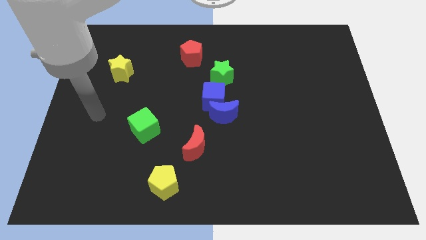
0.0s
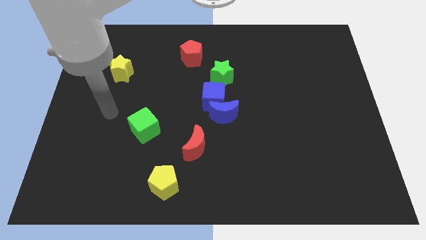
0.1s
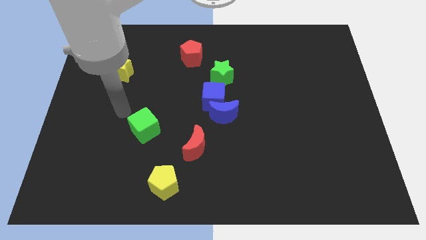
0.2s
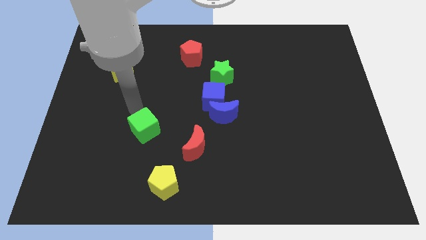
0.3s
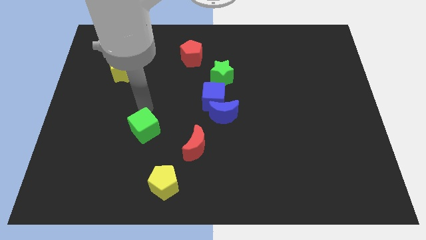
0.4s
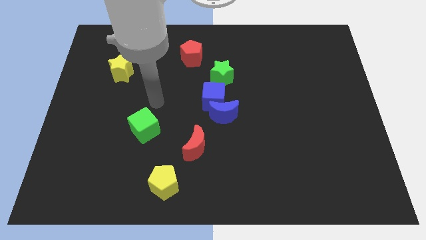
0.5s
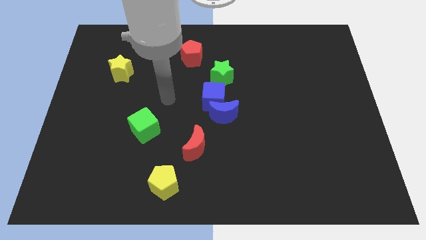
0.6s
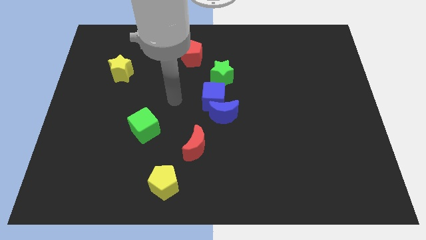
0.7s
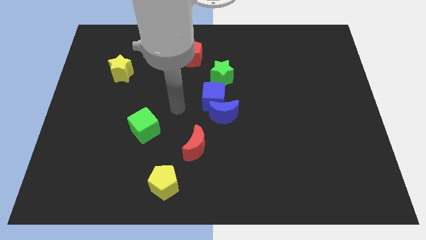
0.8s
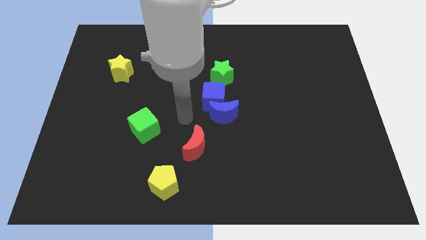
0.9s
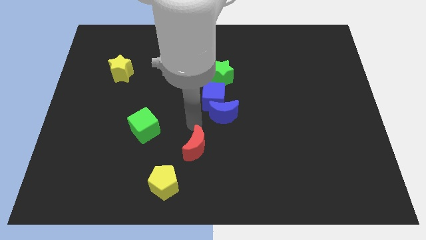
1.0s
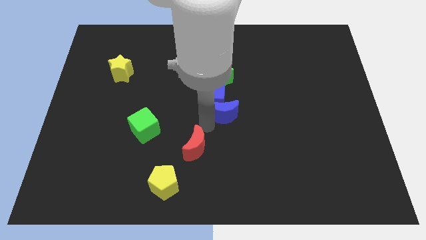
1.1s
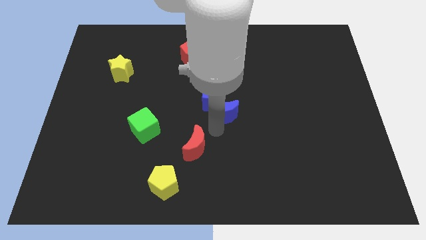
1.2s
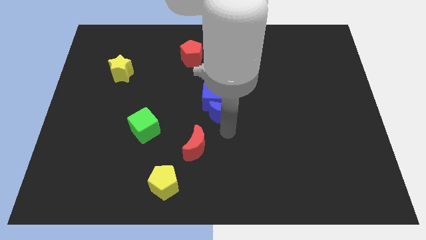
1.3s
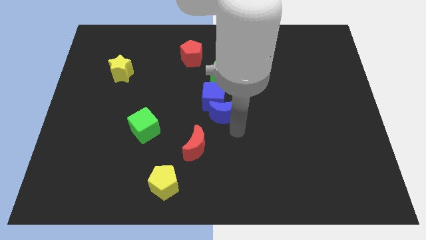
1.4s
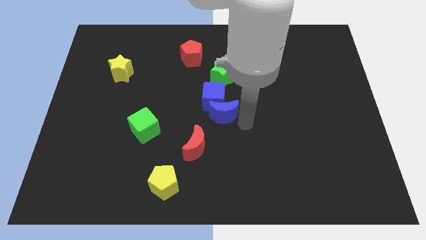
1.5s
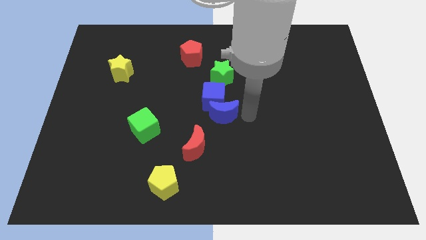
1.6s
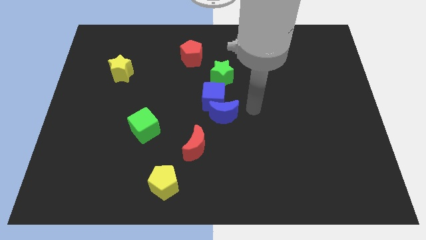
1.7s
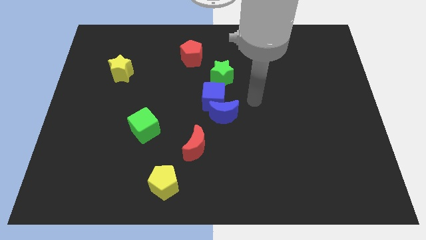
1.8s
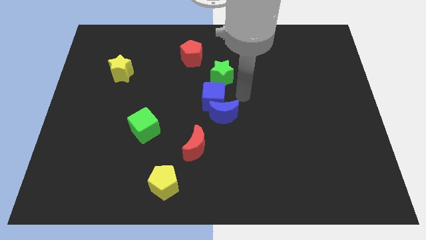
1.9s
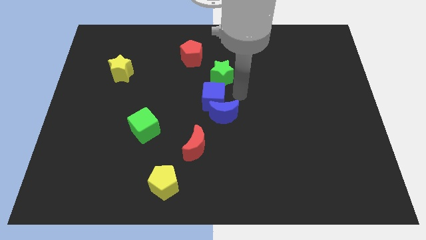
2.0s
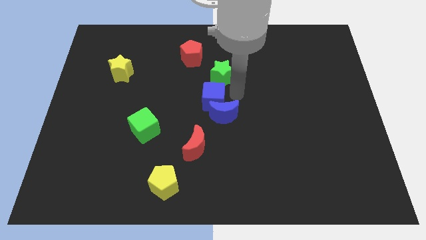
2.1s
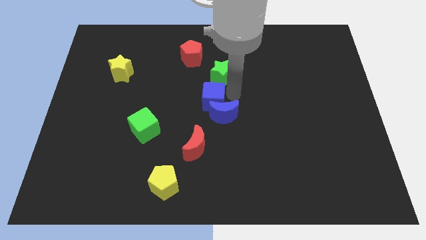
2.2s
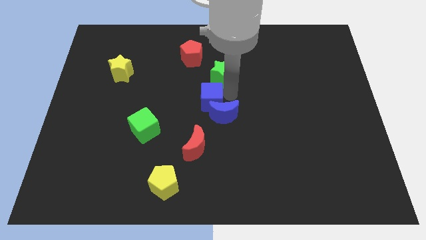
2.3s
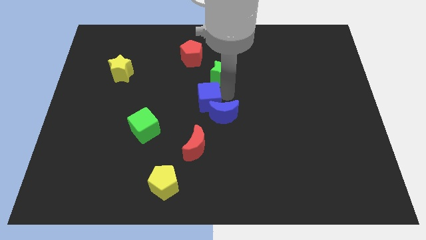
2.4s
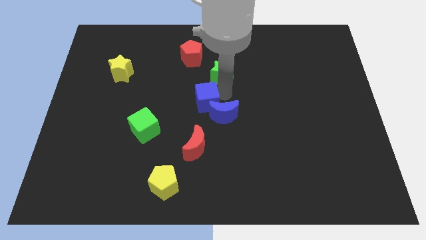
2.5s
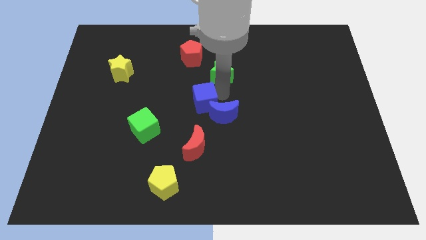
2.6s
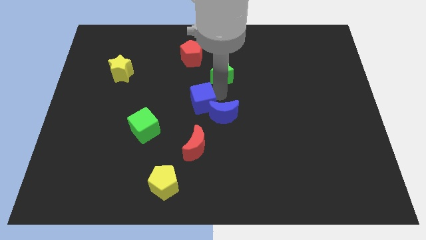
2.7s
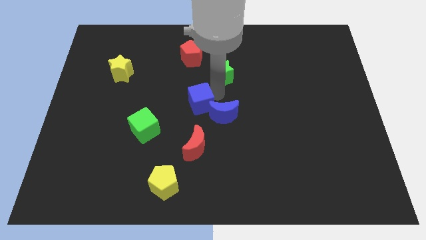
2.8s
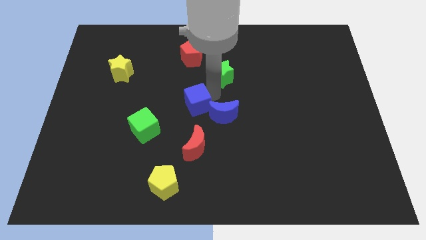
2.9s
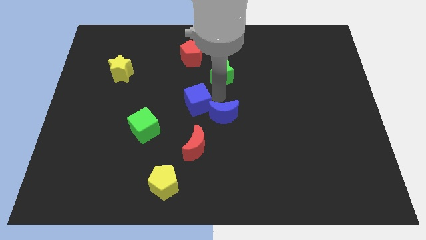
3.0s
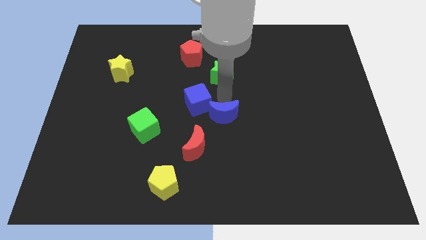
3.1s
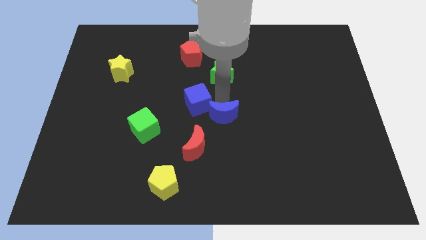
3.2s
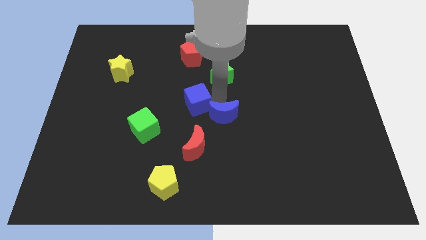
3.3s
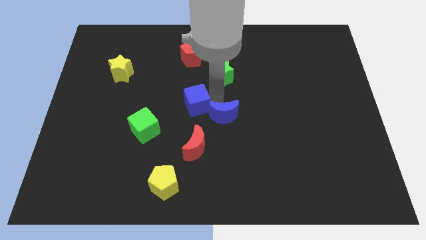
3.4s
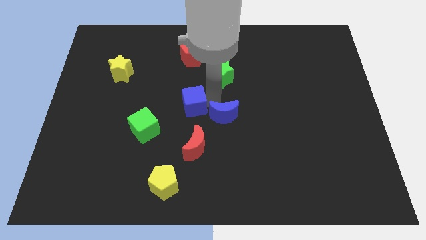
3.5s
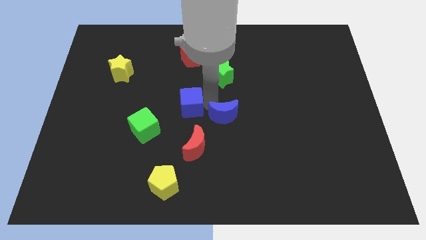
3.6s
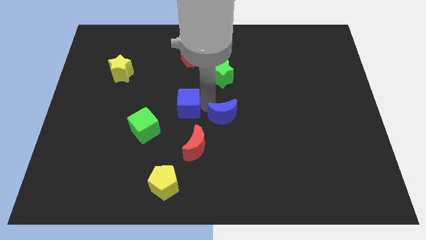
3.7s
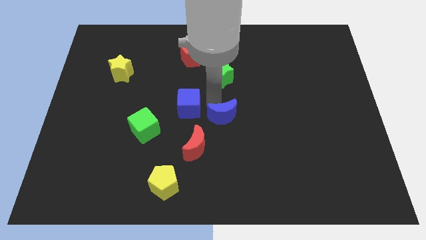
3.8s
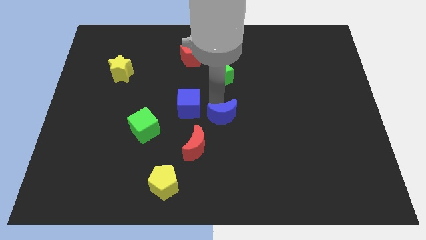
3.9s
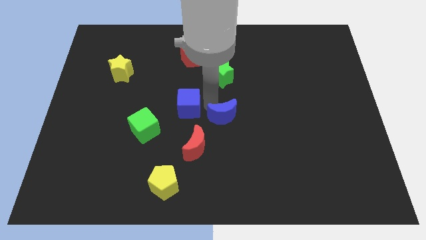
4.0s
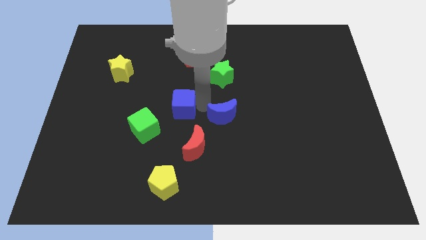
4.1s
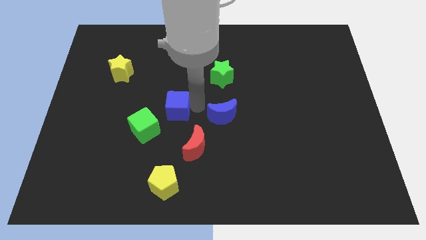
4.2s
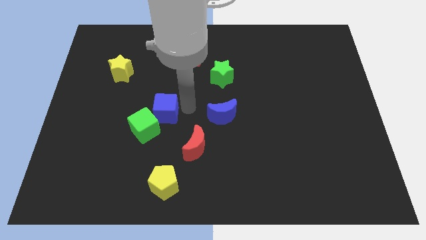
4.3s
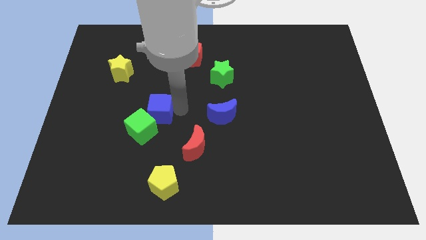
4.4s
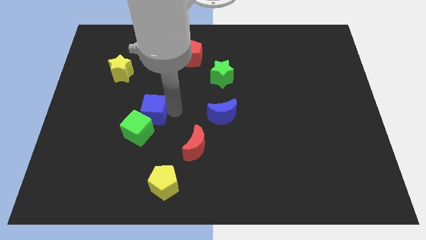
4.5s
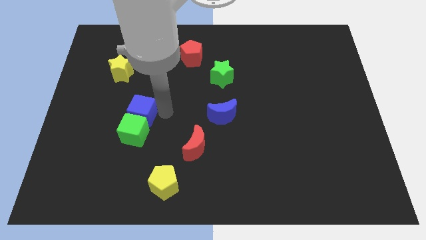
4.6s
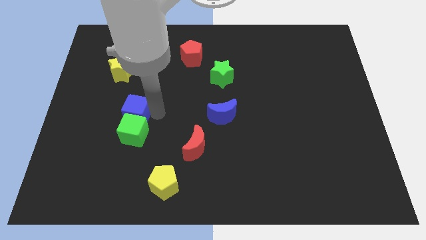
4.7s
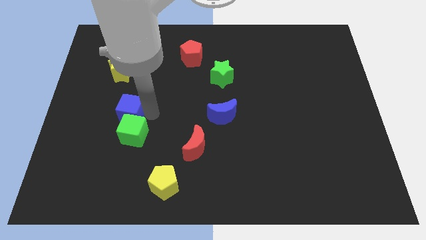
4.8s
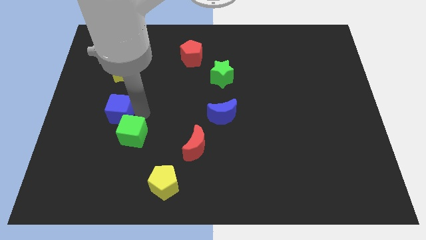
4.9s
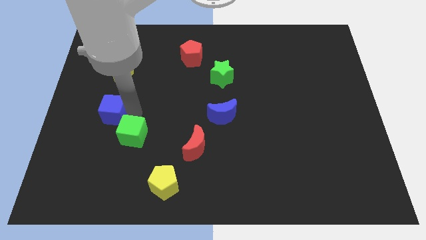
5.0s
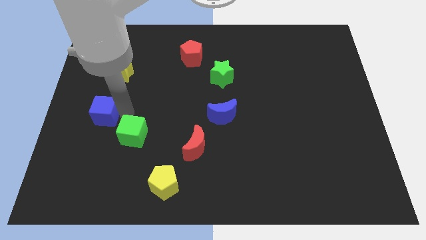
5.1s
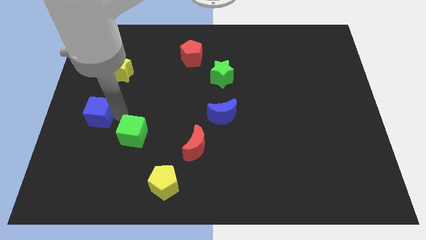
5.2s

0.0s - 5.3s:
slide the blue cube to the left side

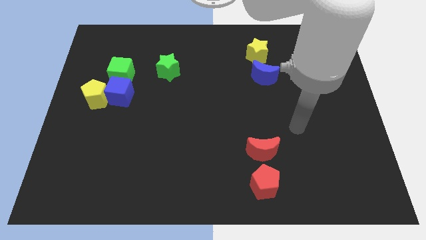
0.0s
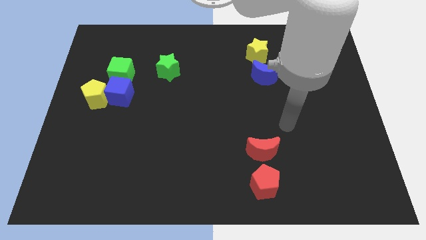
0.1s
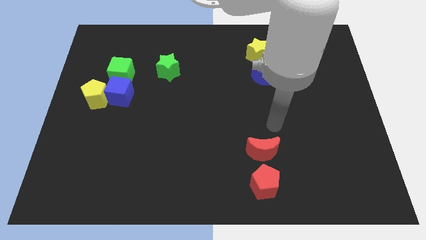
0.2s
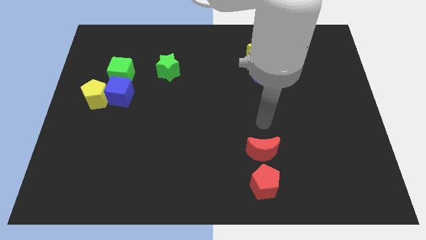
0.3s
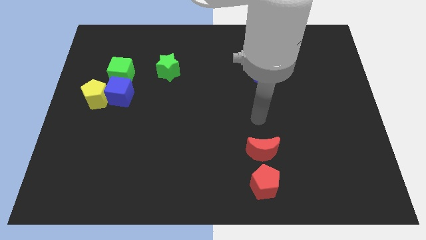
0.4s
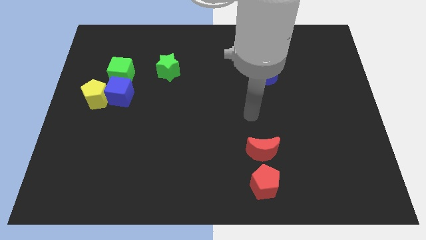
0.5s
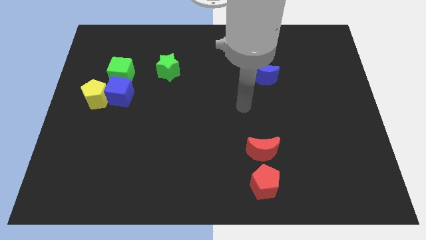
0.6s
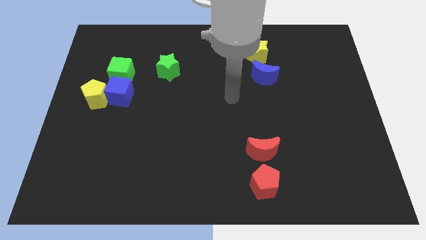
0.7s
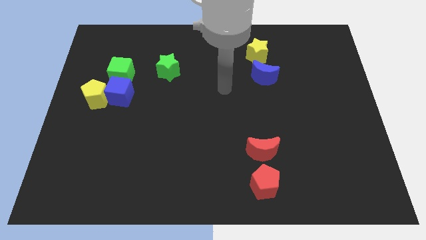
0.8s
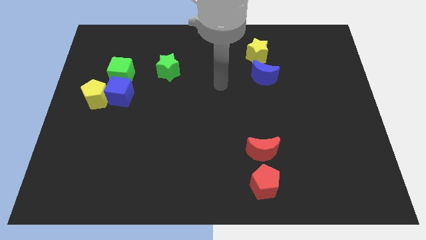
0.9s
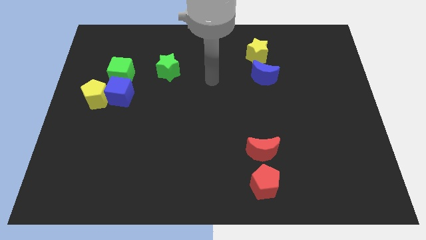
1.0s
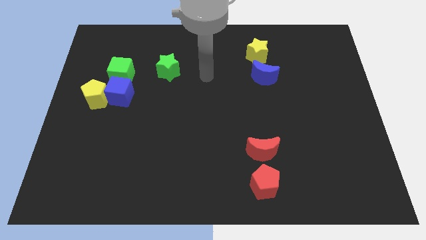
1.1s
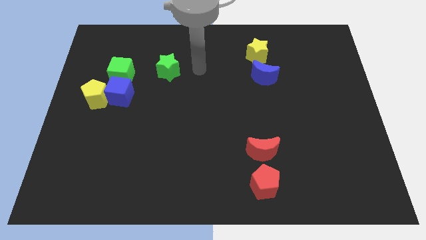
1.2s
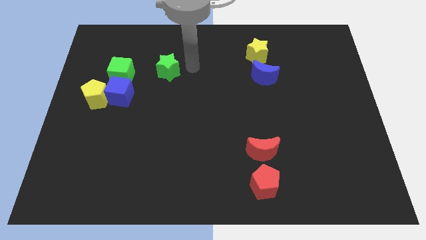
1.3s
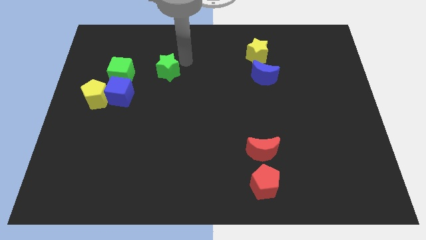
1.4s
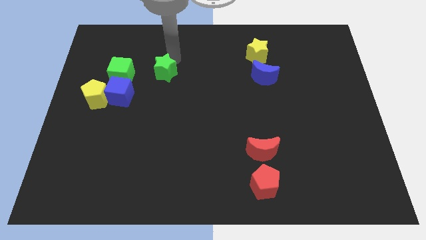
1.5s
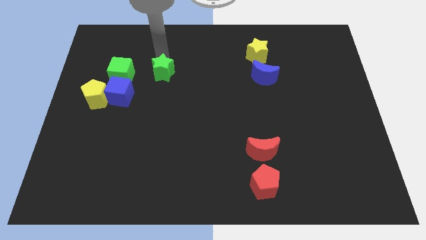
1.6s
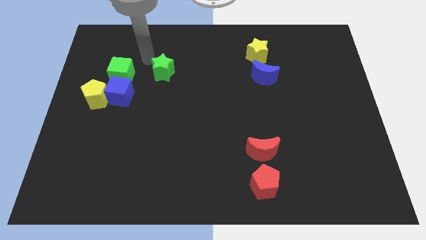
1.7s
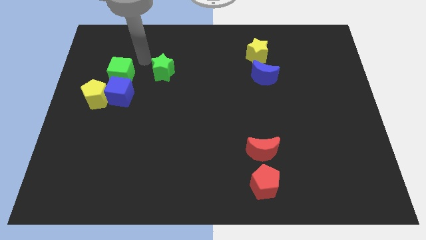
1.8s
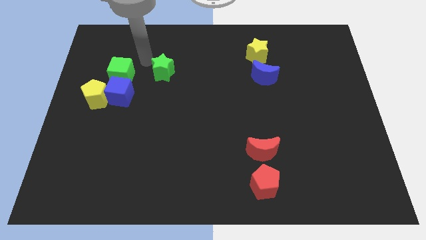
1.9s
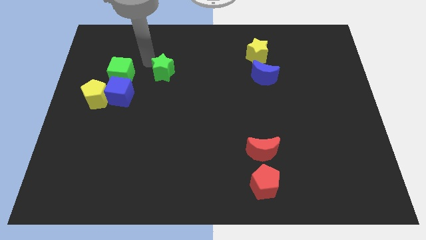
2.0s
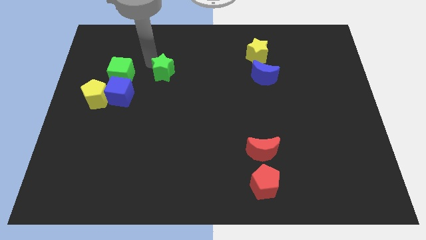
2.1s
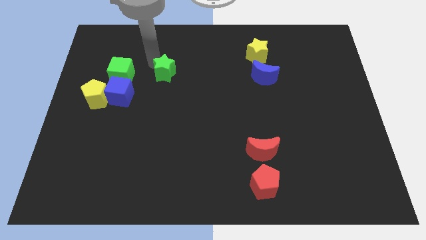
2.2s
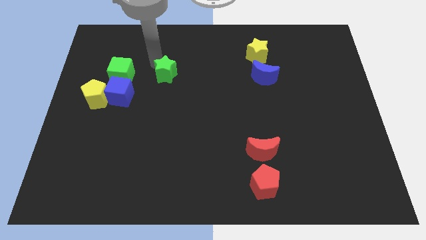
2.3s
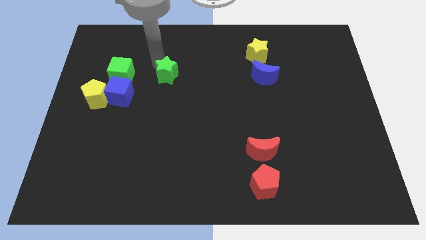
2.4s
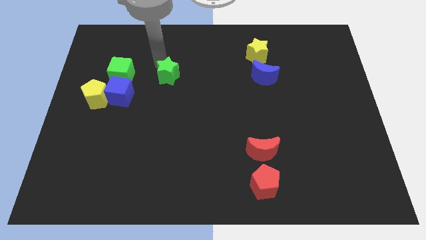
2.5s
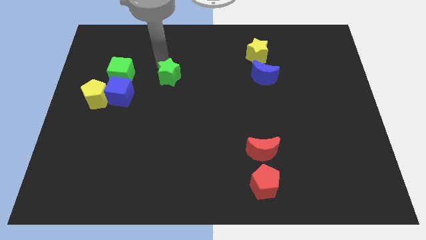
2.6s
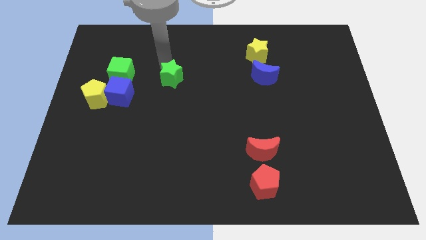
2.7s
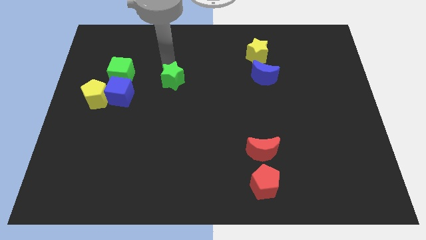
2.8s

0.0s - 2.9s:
move the green star to the center
